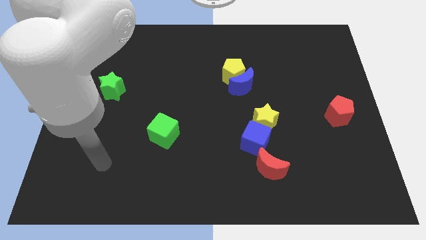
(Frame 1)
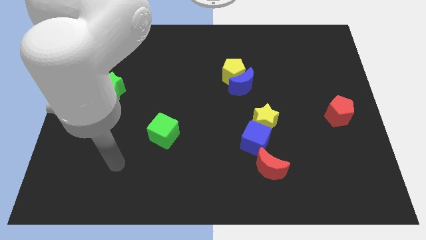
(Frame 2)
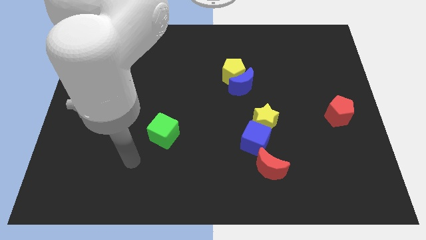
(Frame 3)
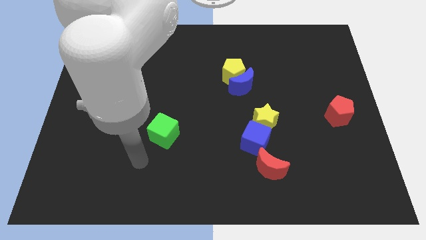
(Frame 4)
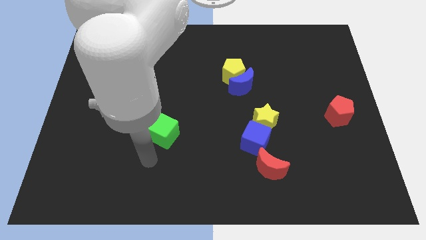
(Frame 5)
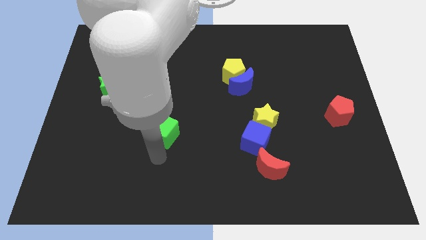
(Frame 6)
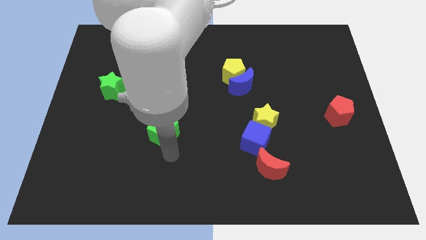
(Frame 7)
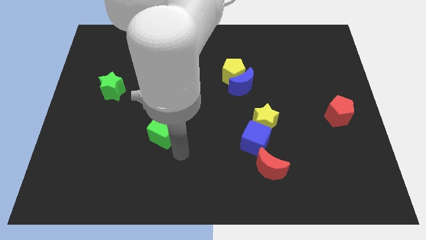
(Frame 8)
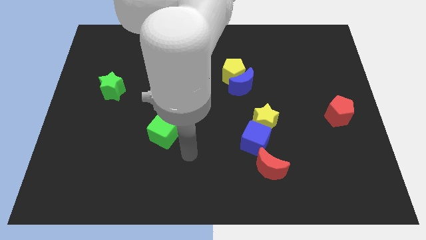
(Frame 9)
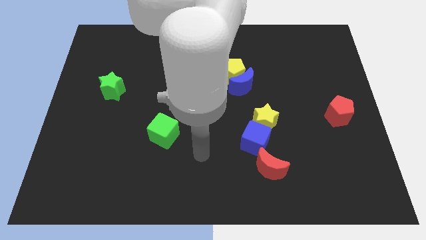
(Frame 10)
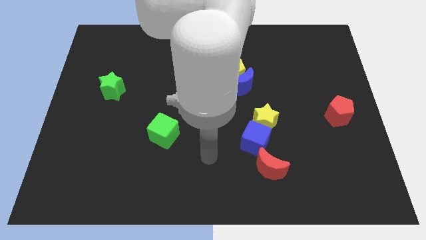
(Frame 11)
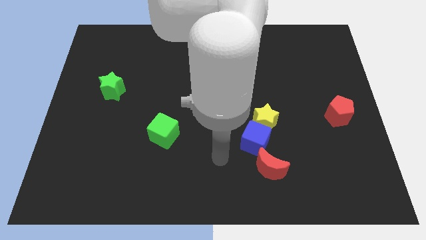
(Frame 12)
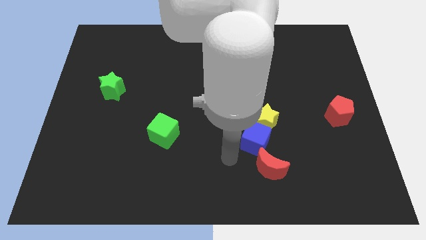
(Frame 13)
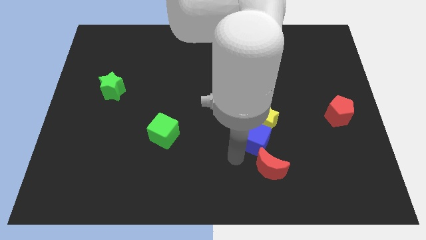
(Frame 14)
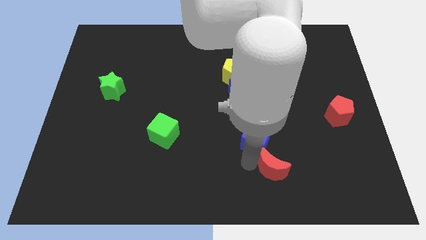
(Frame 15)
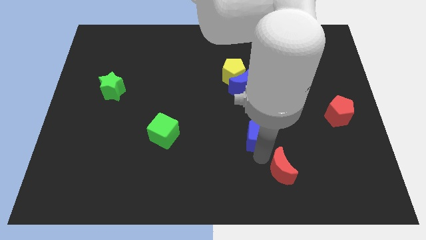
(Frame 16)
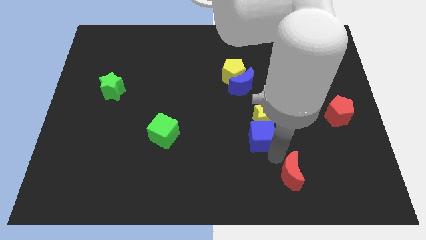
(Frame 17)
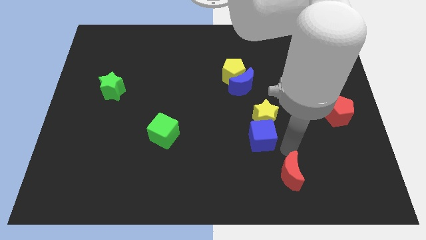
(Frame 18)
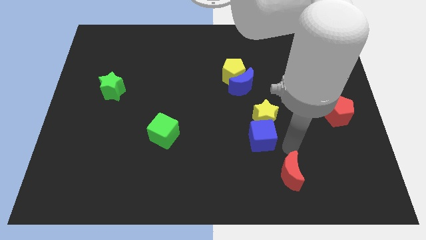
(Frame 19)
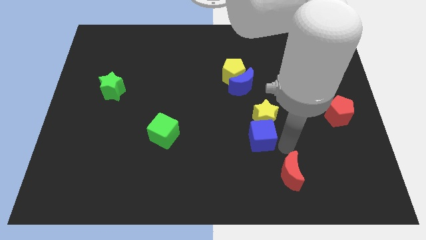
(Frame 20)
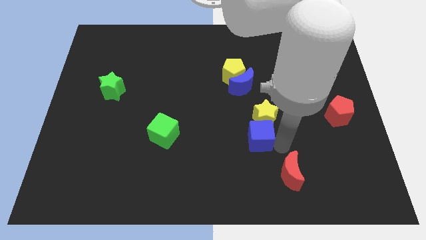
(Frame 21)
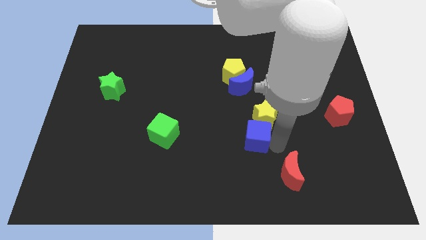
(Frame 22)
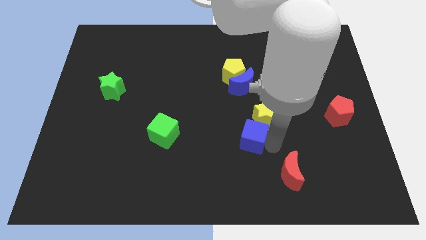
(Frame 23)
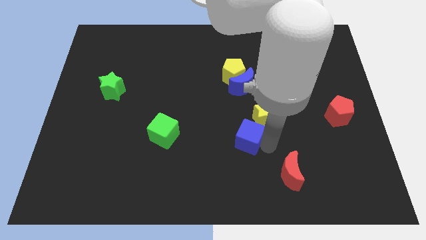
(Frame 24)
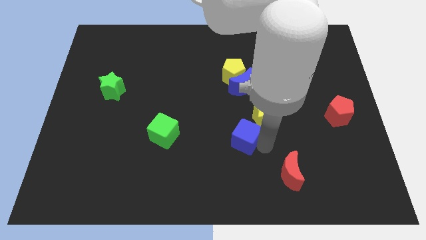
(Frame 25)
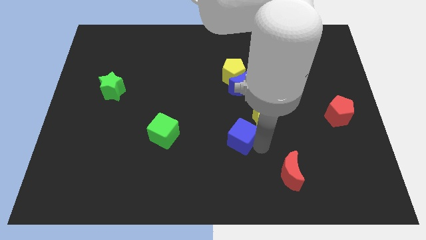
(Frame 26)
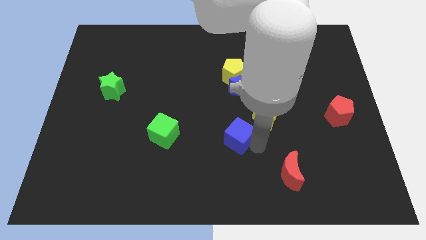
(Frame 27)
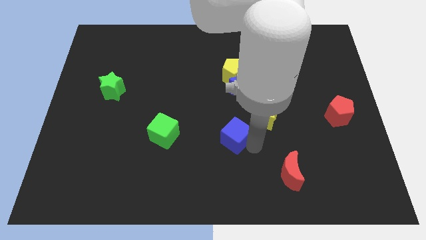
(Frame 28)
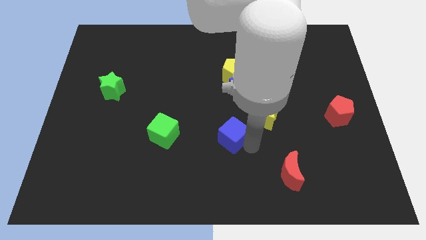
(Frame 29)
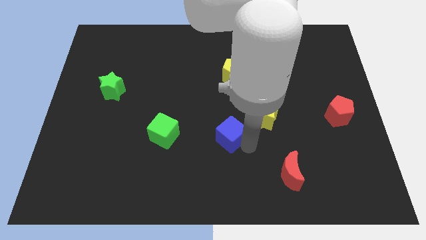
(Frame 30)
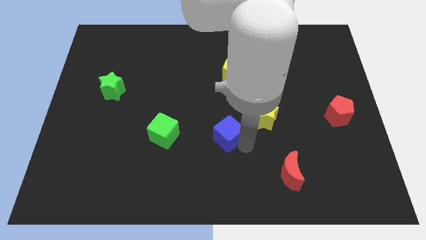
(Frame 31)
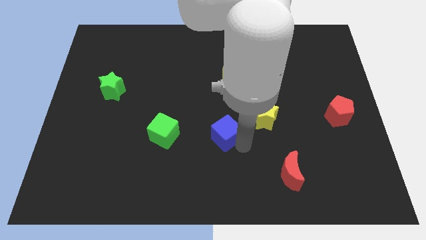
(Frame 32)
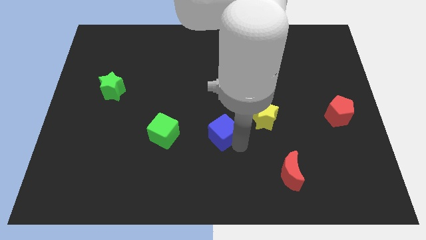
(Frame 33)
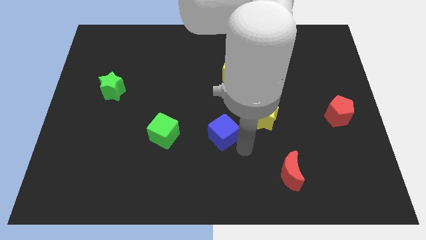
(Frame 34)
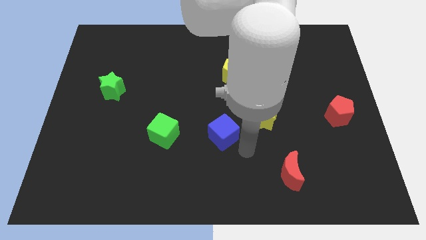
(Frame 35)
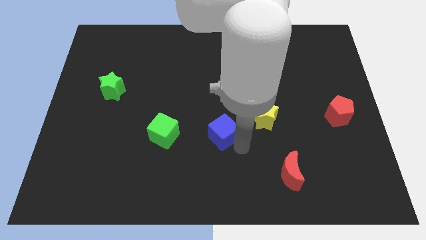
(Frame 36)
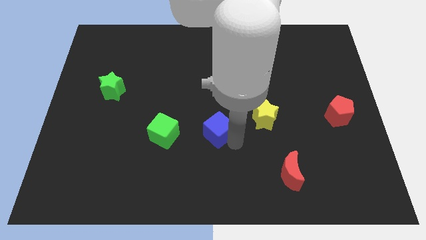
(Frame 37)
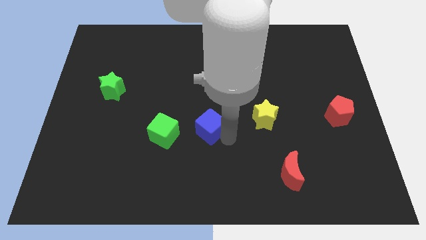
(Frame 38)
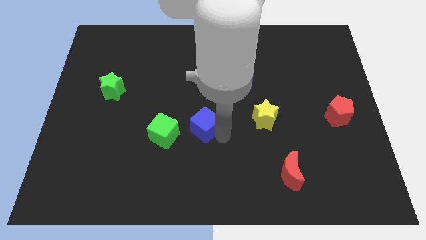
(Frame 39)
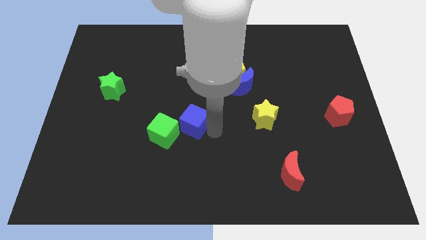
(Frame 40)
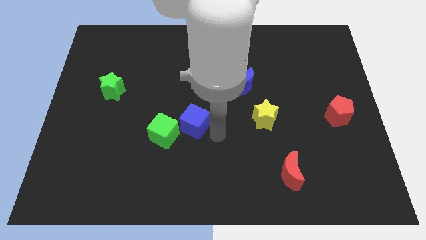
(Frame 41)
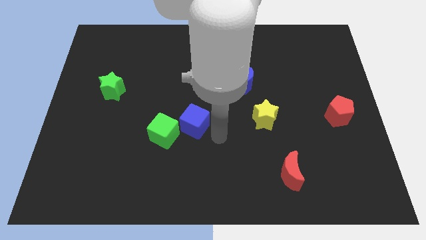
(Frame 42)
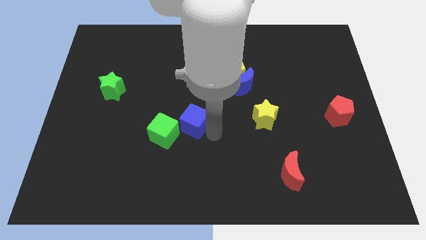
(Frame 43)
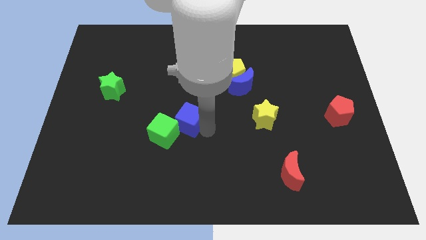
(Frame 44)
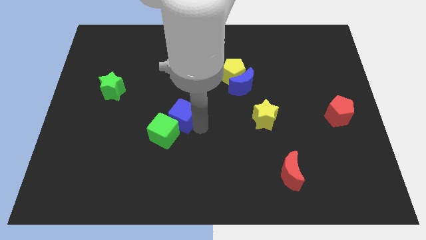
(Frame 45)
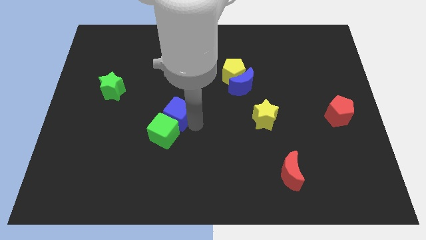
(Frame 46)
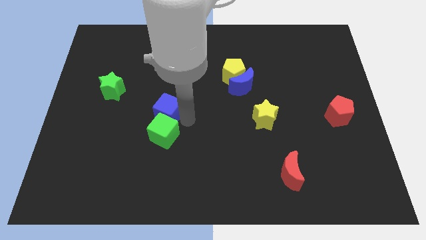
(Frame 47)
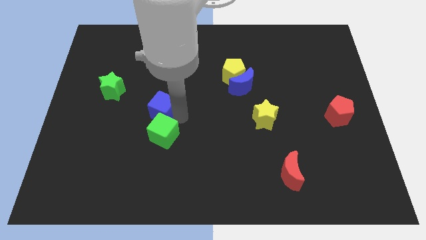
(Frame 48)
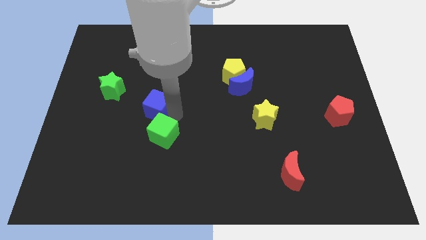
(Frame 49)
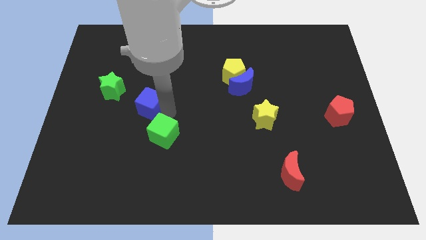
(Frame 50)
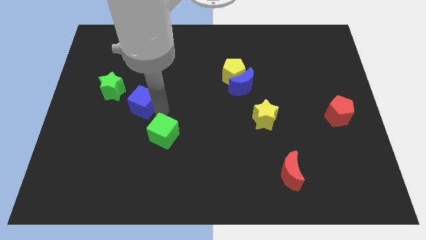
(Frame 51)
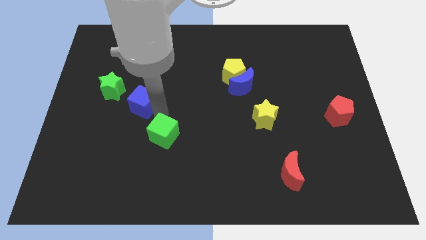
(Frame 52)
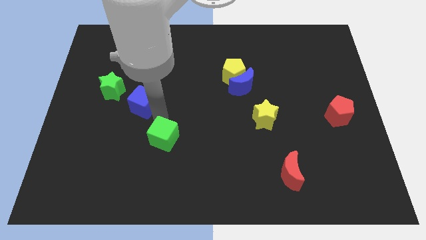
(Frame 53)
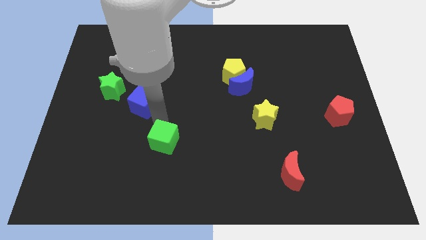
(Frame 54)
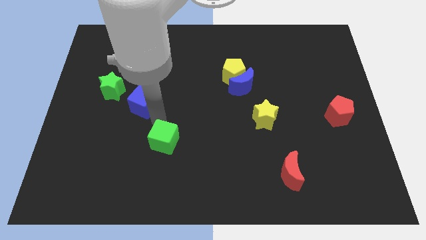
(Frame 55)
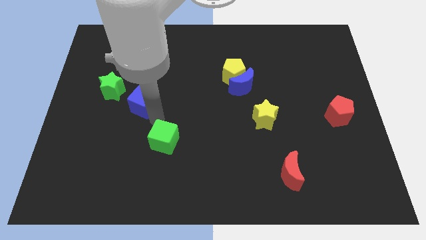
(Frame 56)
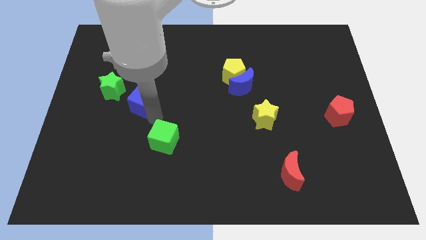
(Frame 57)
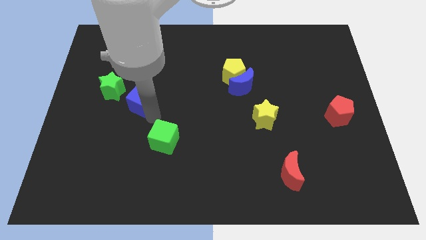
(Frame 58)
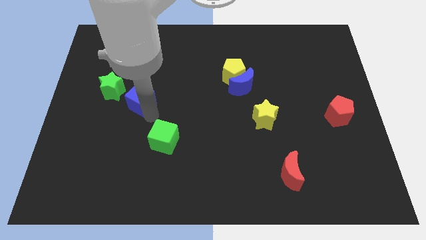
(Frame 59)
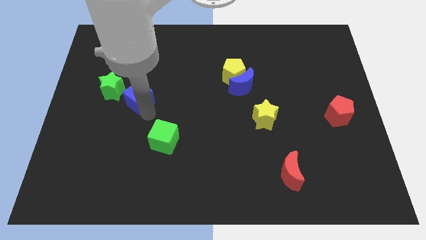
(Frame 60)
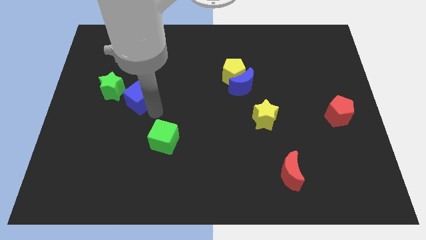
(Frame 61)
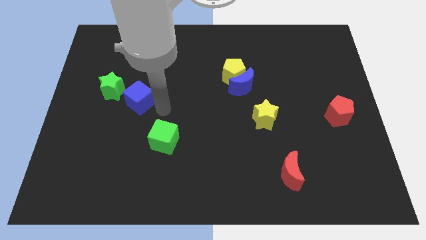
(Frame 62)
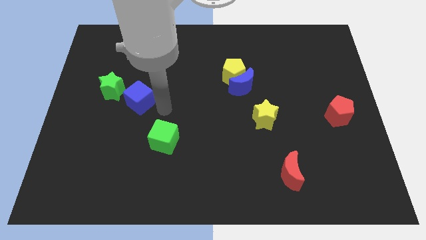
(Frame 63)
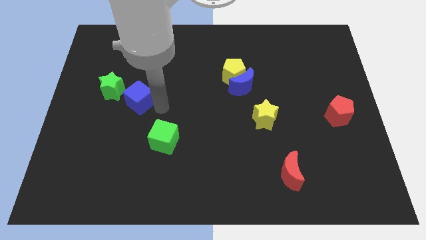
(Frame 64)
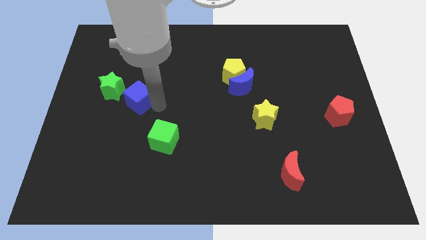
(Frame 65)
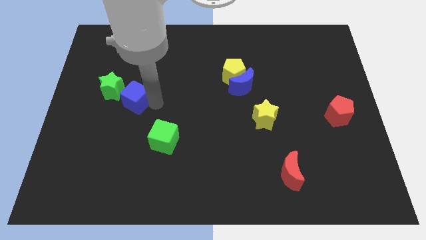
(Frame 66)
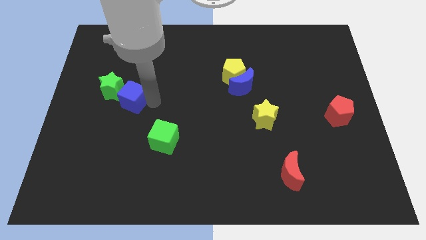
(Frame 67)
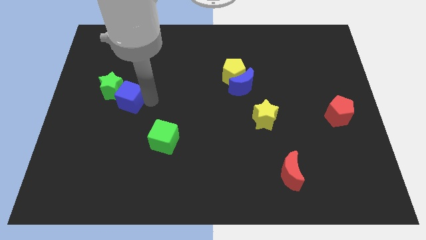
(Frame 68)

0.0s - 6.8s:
push the blue cube close to the green star
